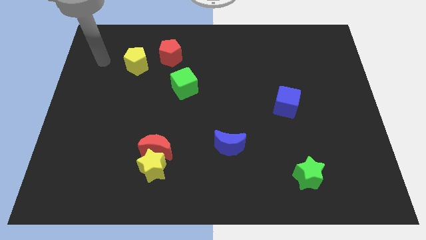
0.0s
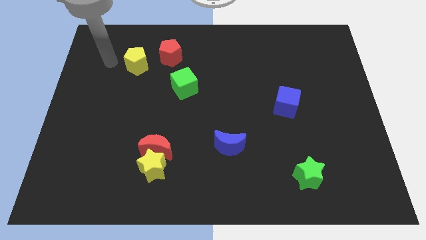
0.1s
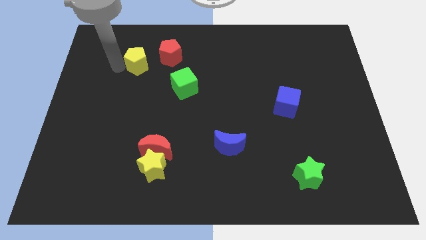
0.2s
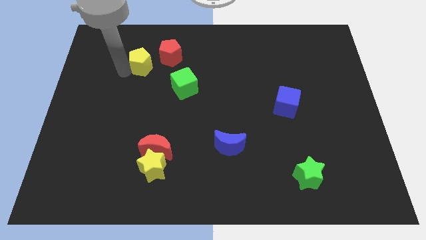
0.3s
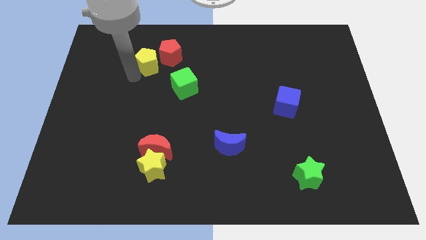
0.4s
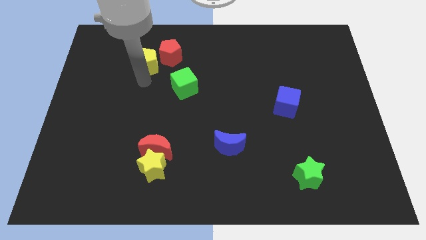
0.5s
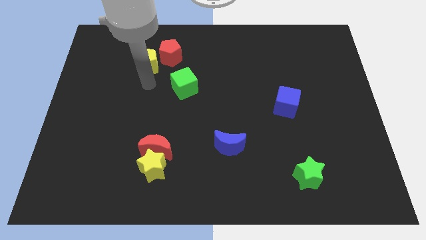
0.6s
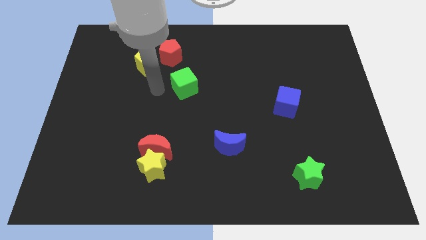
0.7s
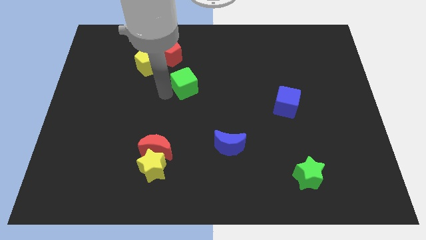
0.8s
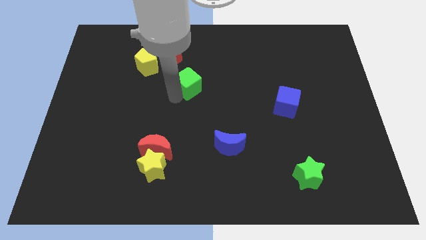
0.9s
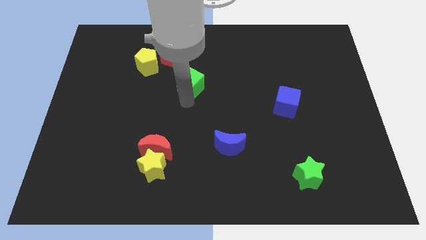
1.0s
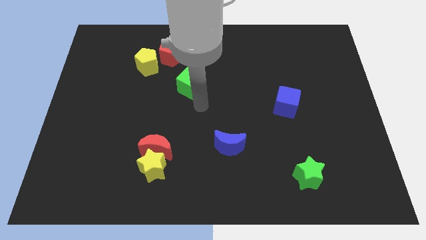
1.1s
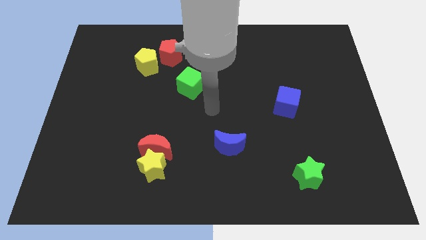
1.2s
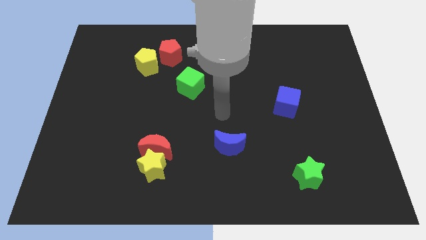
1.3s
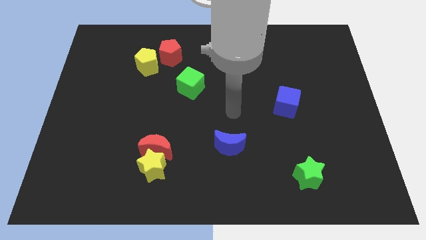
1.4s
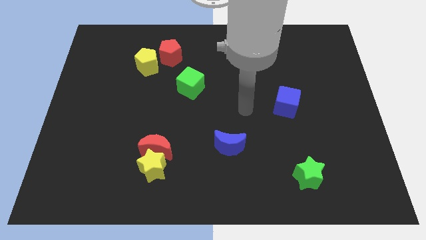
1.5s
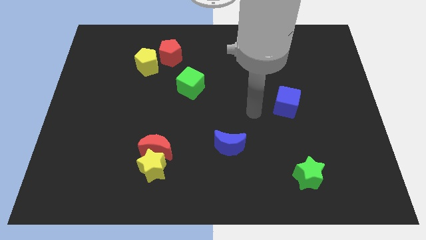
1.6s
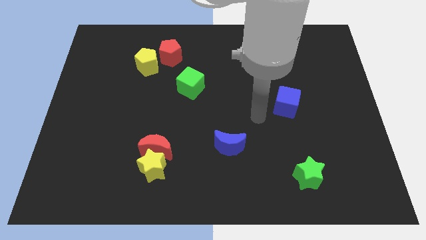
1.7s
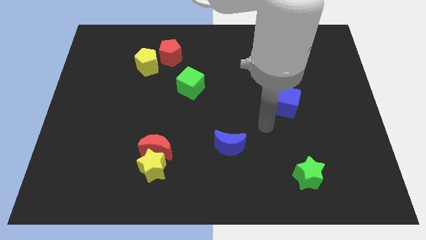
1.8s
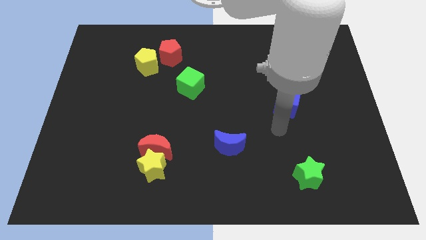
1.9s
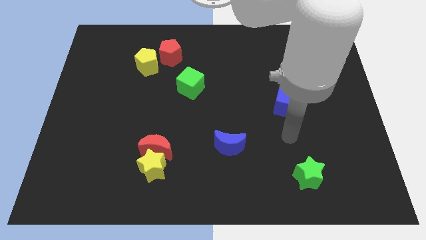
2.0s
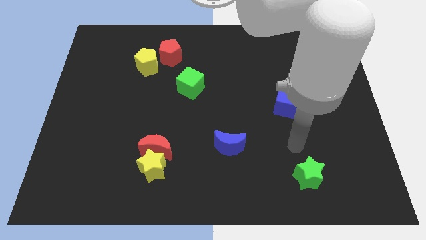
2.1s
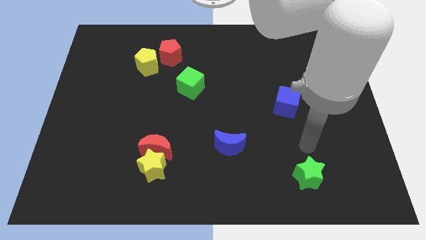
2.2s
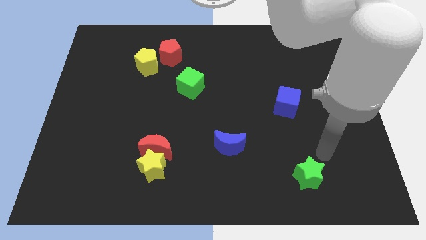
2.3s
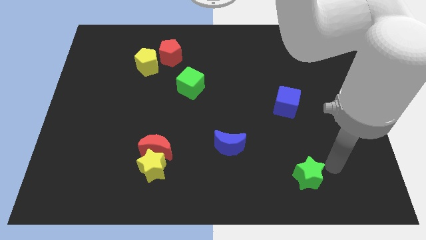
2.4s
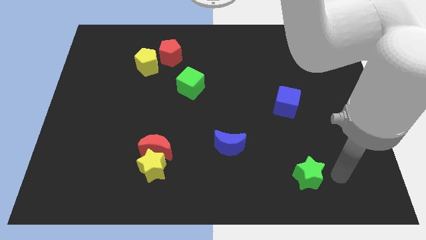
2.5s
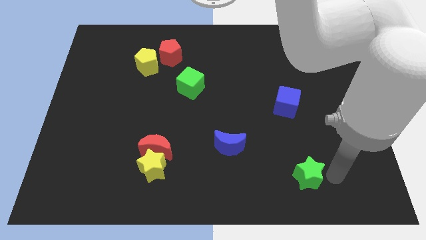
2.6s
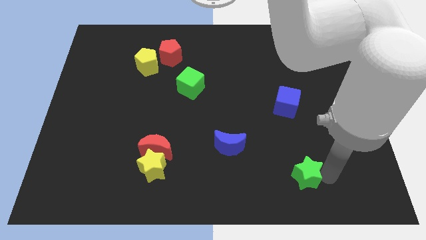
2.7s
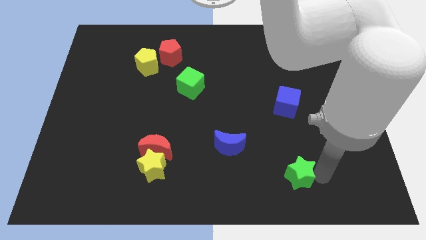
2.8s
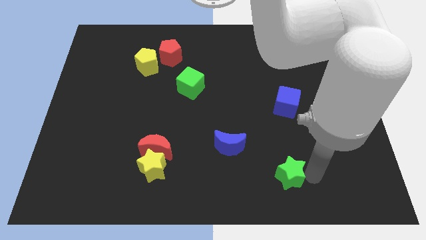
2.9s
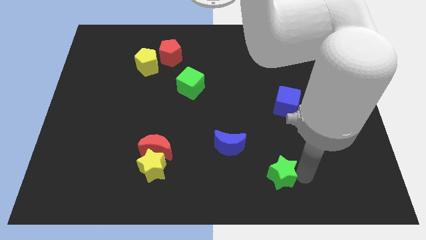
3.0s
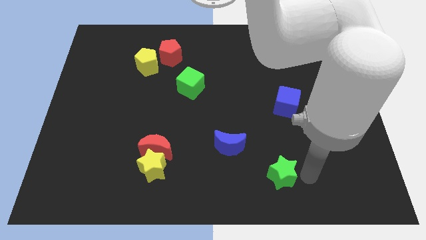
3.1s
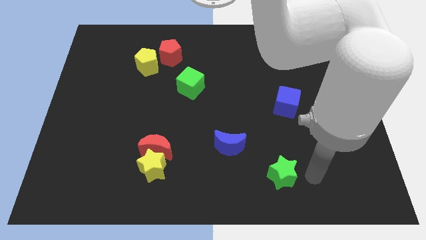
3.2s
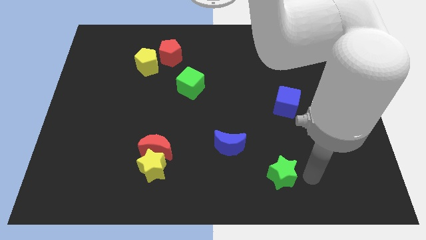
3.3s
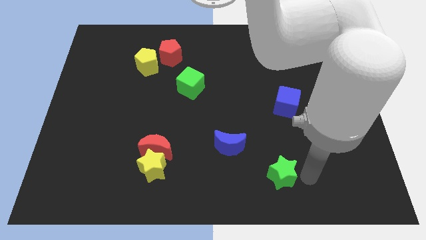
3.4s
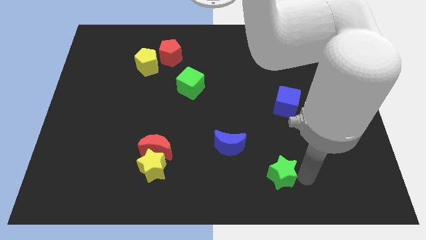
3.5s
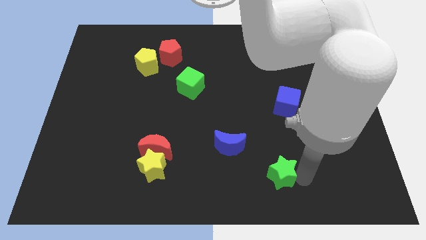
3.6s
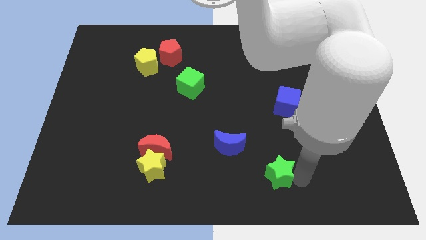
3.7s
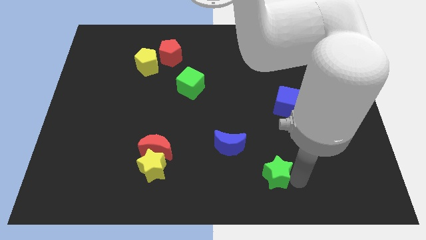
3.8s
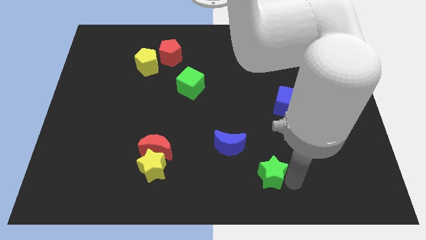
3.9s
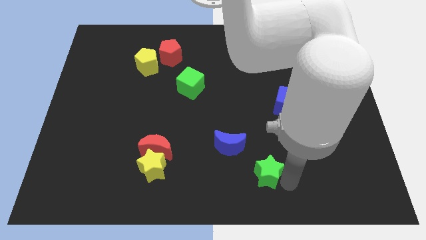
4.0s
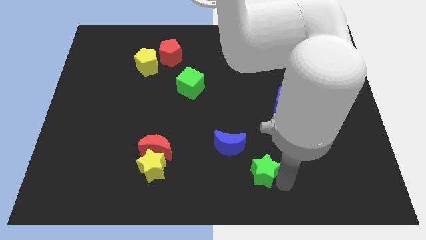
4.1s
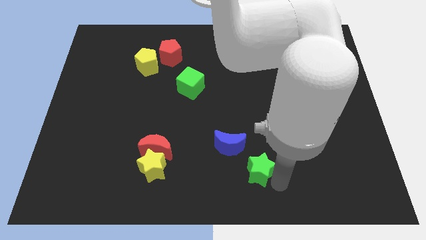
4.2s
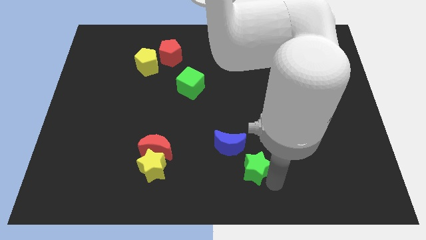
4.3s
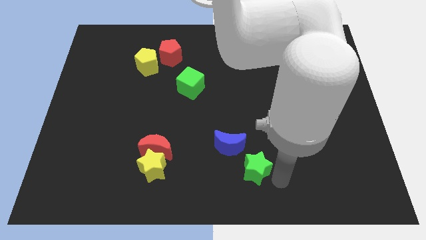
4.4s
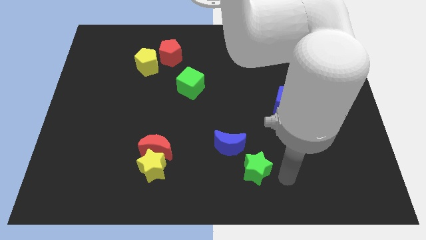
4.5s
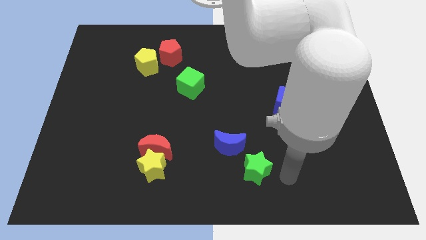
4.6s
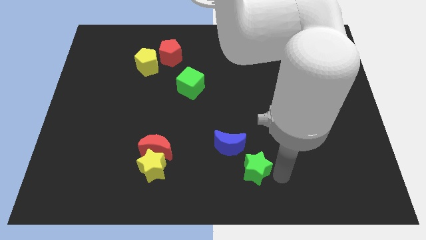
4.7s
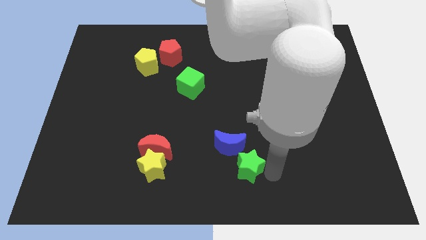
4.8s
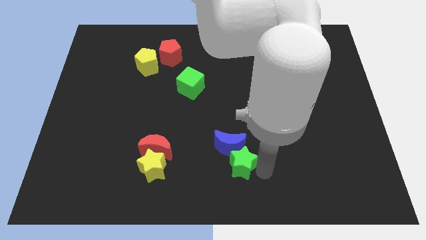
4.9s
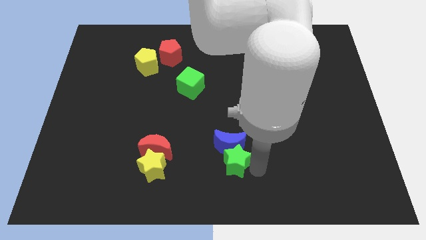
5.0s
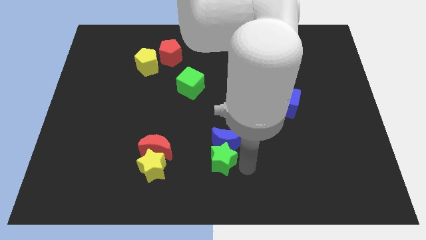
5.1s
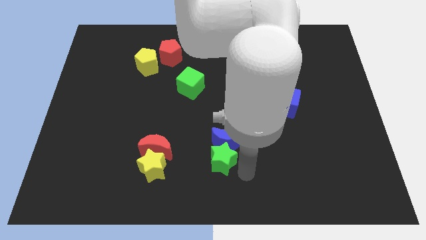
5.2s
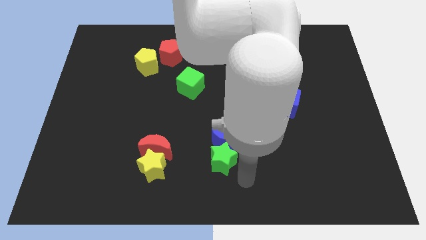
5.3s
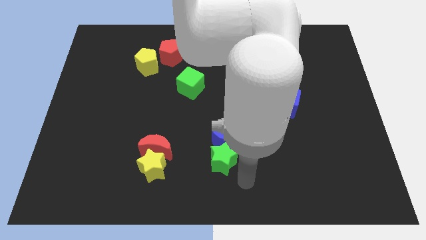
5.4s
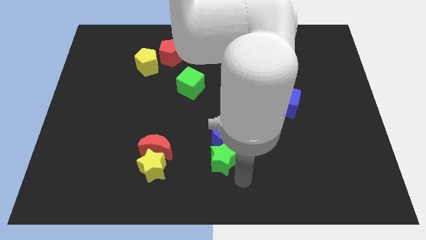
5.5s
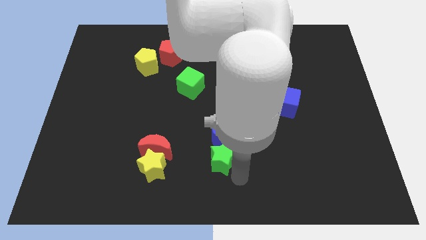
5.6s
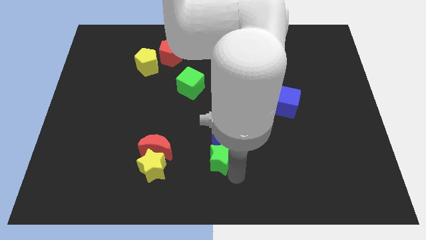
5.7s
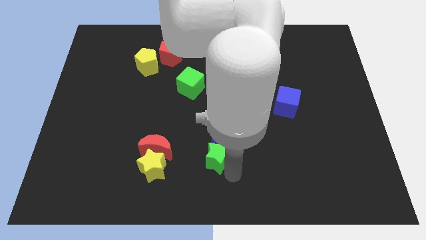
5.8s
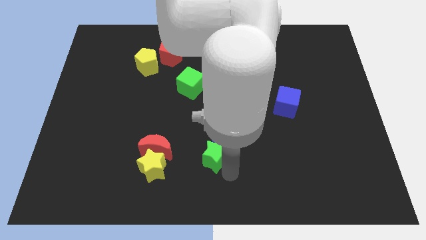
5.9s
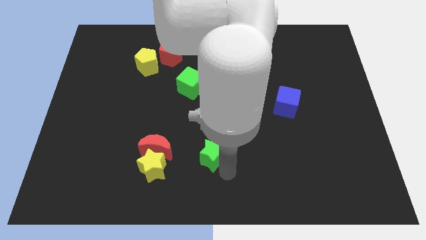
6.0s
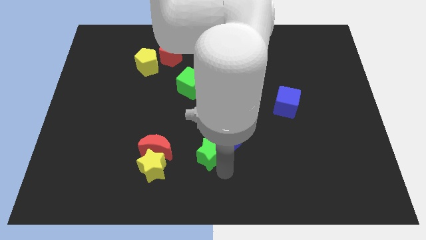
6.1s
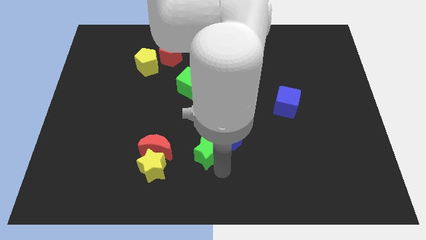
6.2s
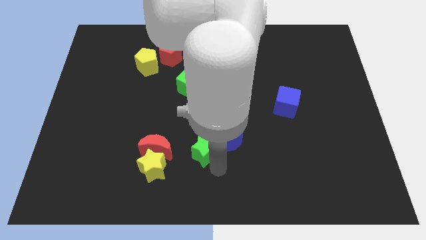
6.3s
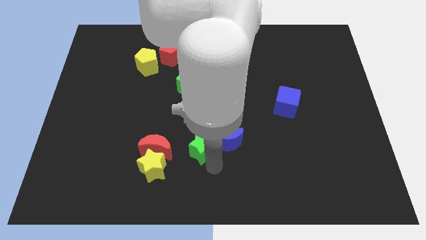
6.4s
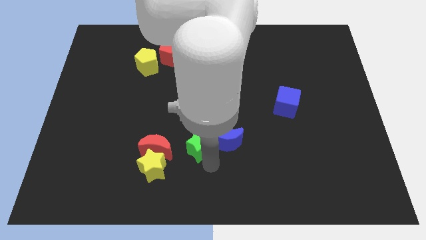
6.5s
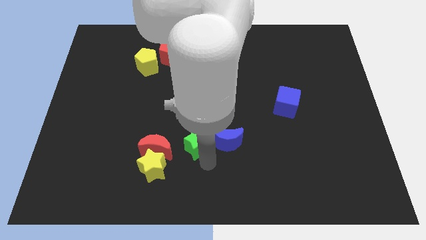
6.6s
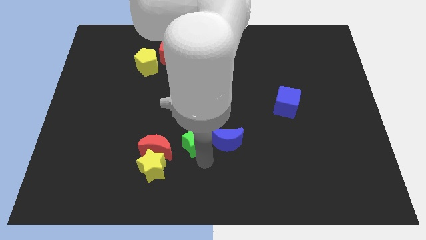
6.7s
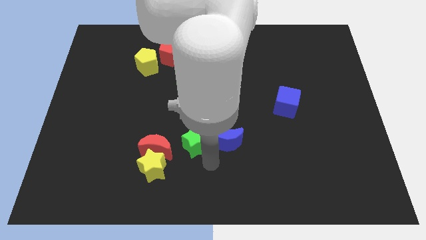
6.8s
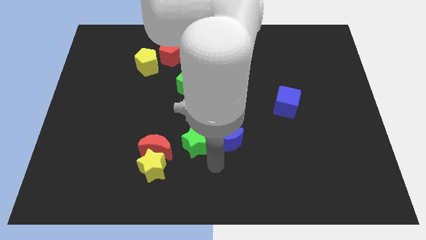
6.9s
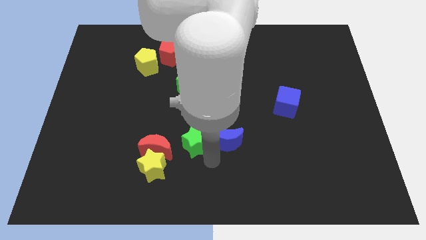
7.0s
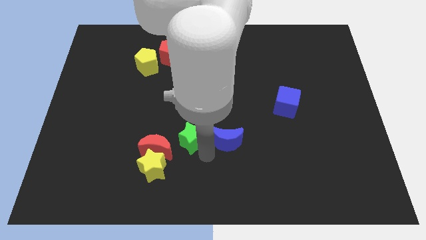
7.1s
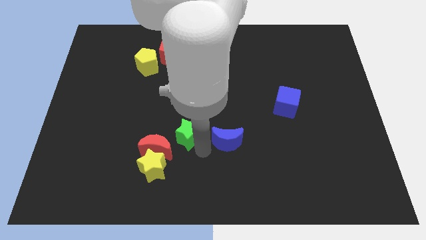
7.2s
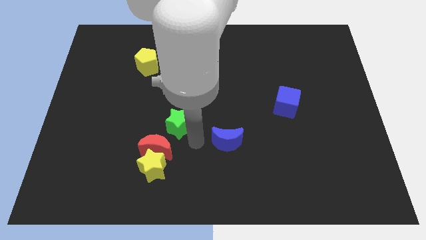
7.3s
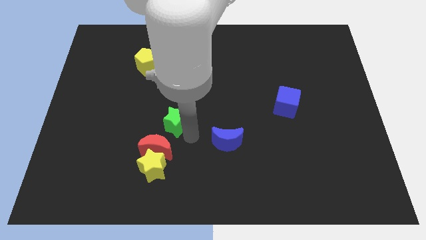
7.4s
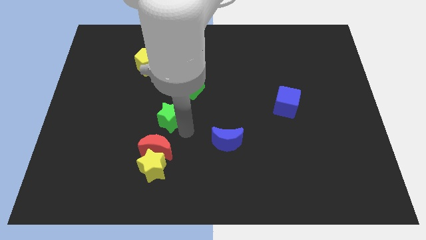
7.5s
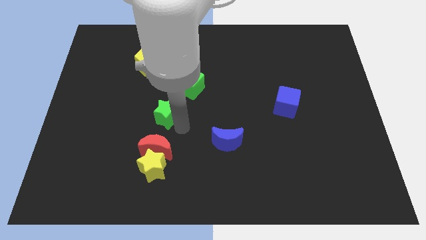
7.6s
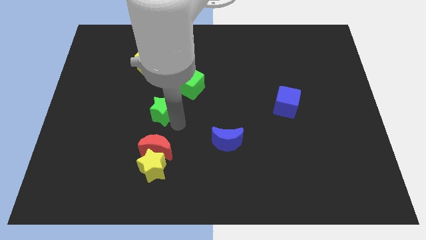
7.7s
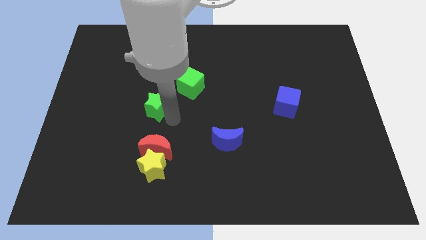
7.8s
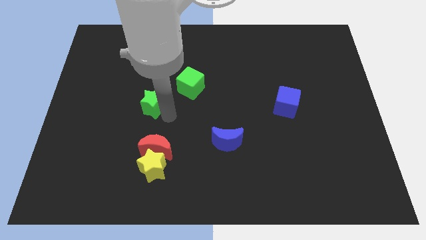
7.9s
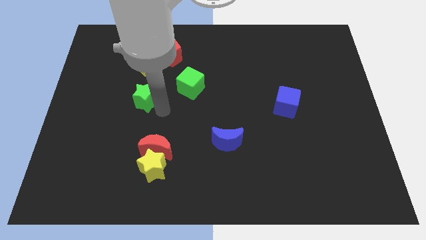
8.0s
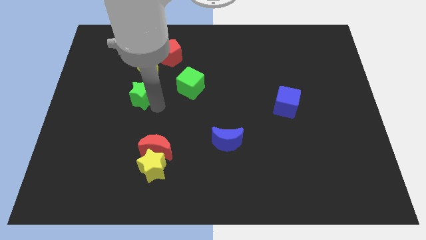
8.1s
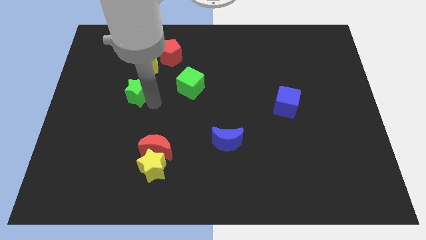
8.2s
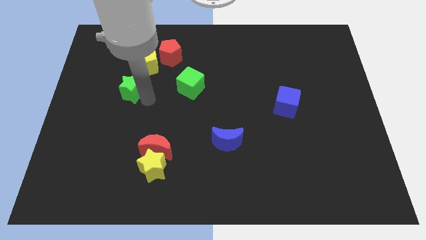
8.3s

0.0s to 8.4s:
slide the green star to the bottom left of the yellow pentagon
